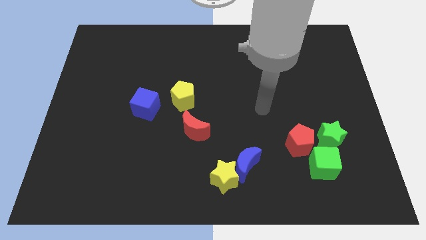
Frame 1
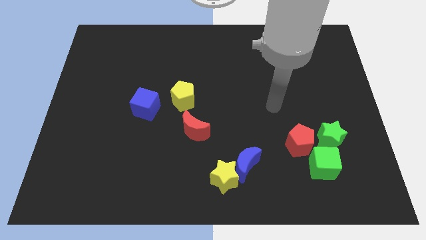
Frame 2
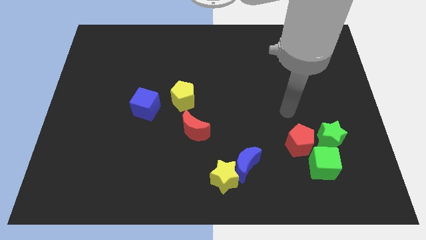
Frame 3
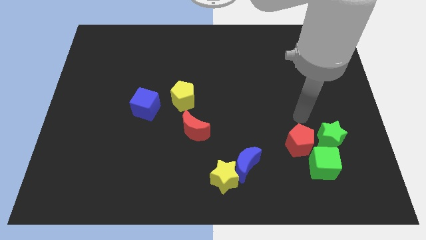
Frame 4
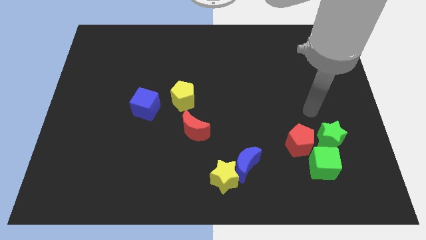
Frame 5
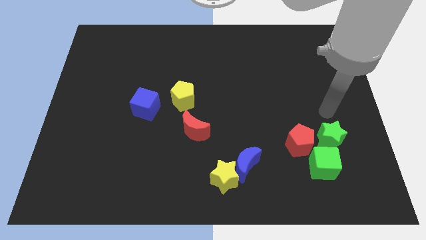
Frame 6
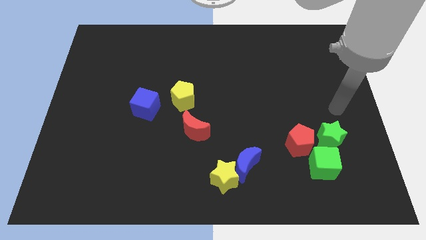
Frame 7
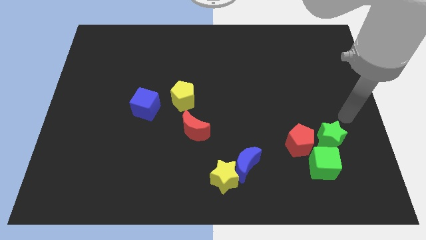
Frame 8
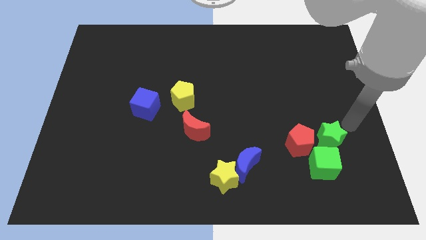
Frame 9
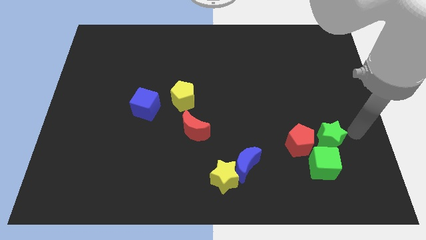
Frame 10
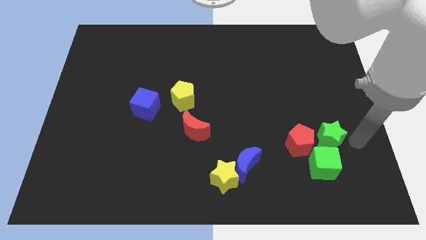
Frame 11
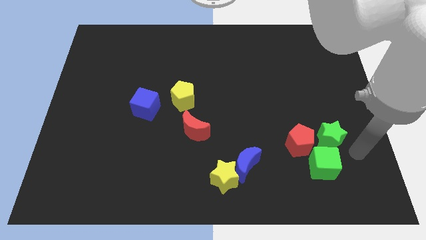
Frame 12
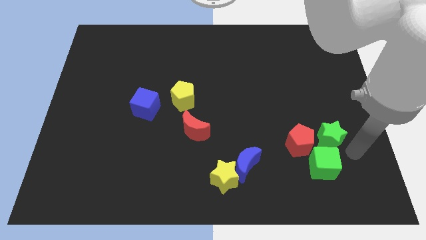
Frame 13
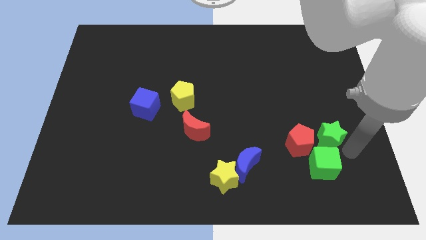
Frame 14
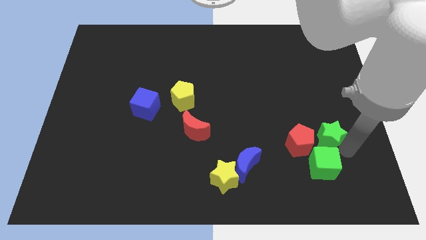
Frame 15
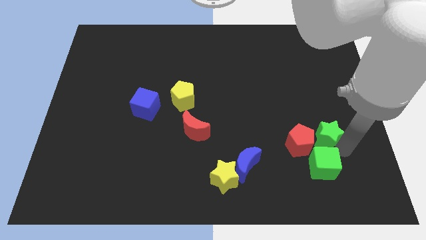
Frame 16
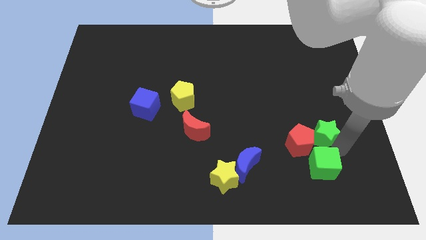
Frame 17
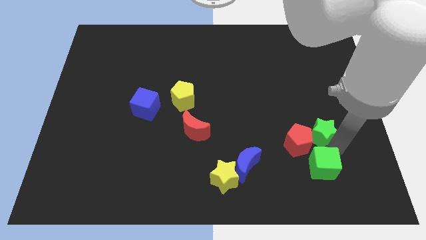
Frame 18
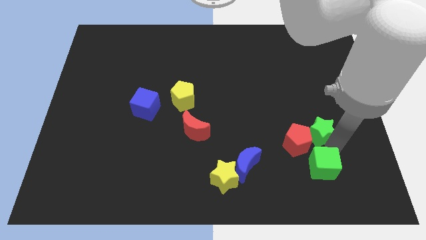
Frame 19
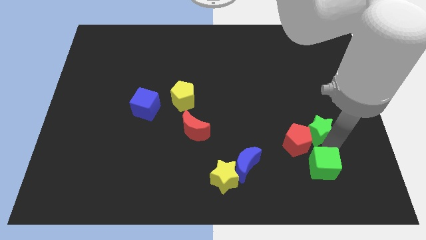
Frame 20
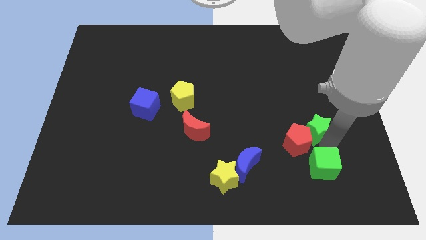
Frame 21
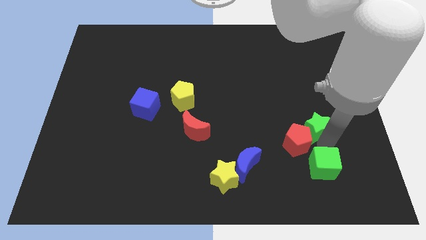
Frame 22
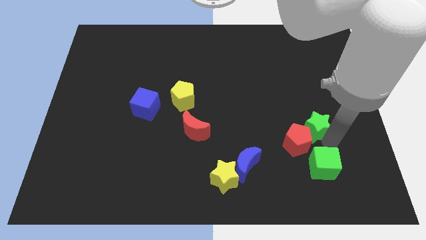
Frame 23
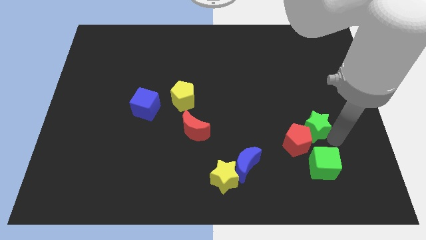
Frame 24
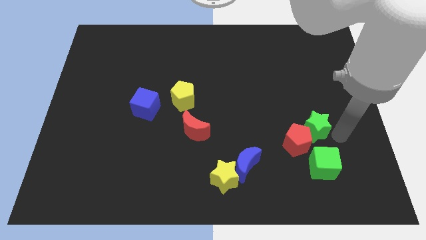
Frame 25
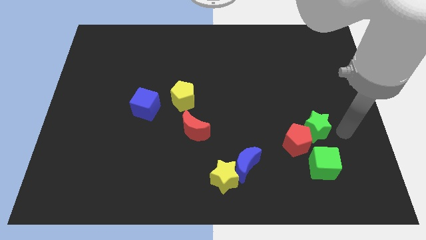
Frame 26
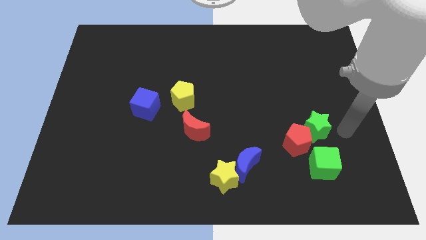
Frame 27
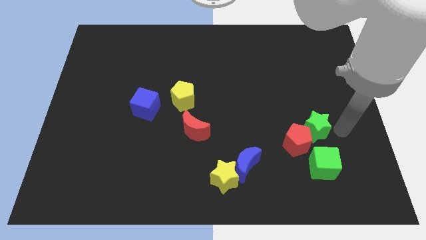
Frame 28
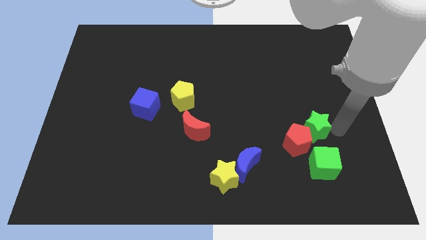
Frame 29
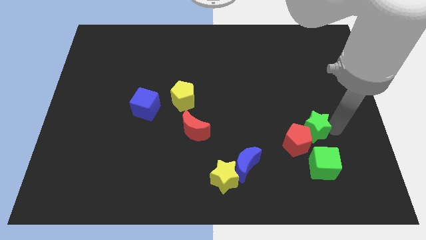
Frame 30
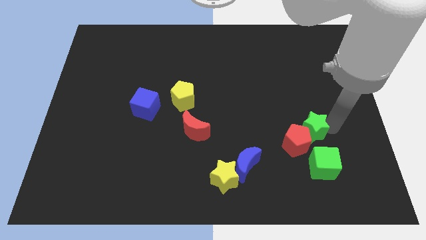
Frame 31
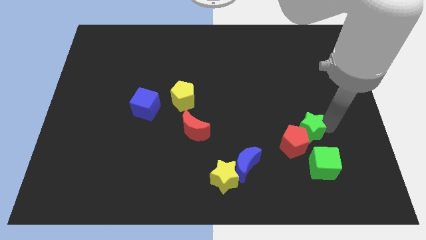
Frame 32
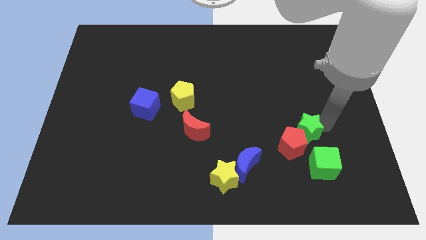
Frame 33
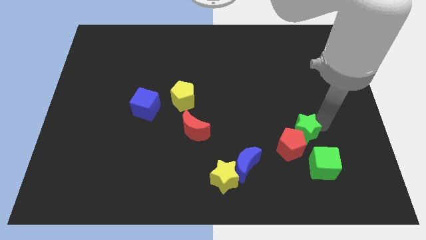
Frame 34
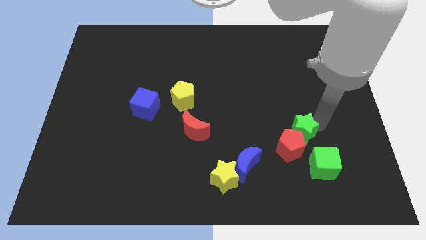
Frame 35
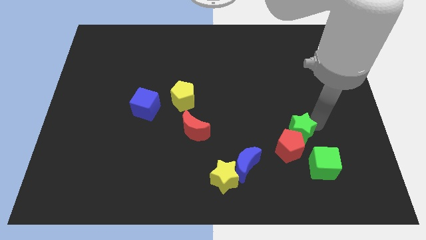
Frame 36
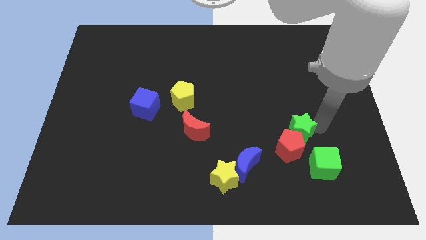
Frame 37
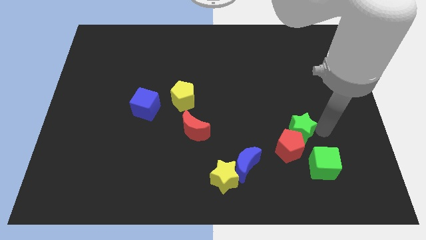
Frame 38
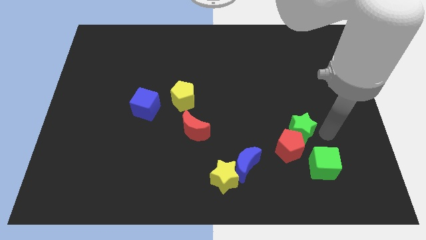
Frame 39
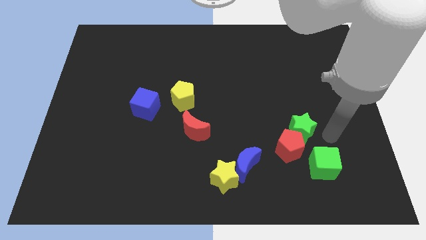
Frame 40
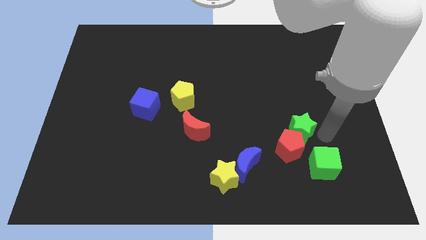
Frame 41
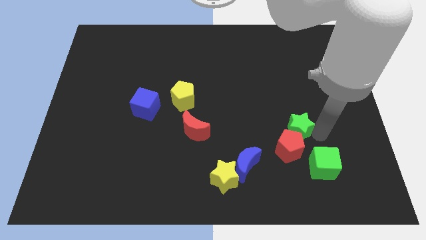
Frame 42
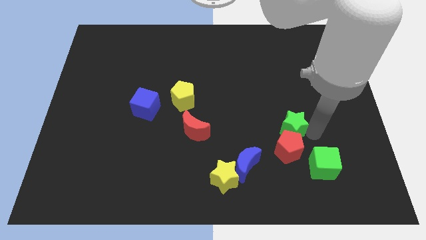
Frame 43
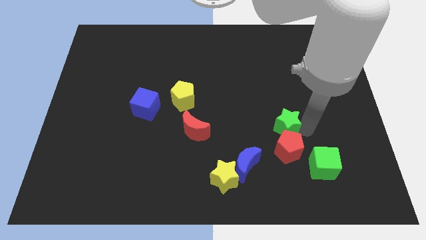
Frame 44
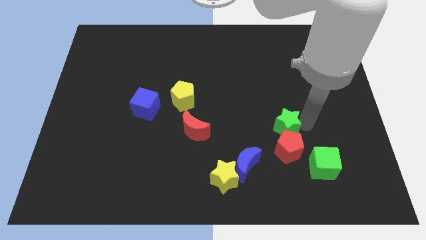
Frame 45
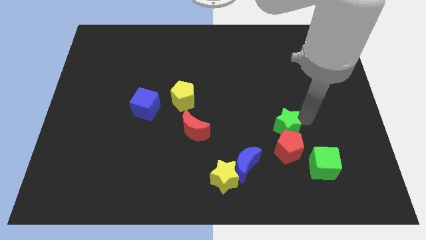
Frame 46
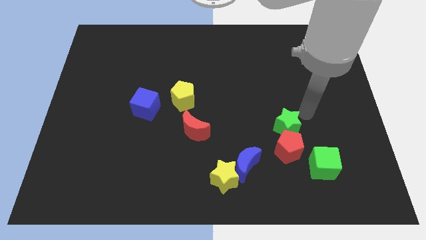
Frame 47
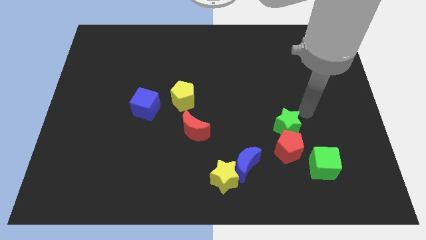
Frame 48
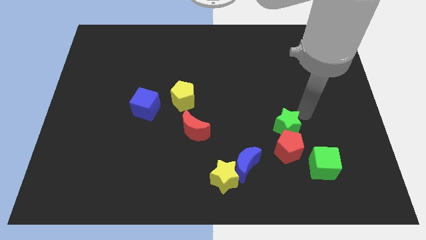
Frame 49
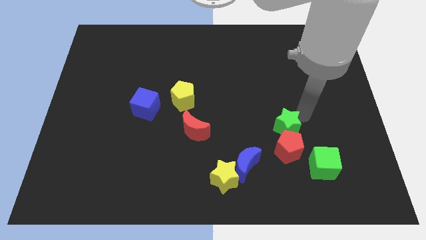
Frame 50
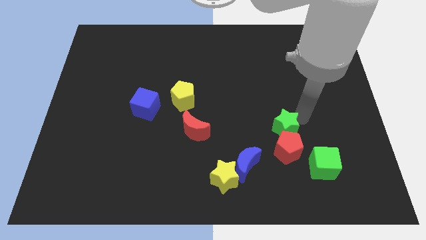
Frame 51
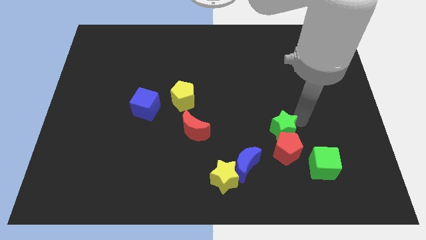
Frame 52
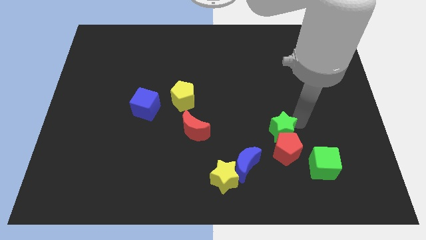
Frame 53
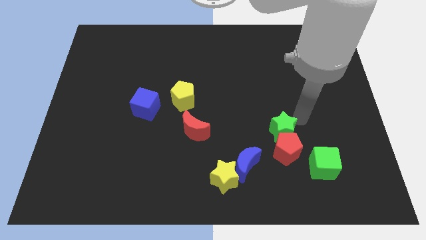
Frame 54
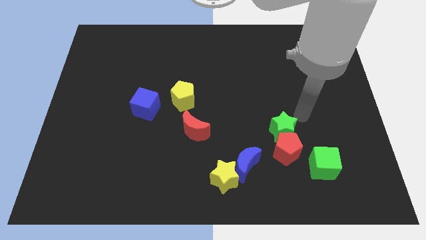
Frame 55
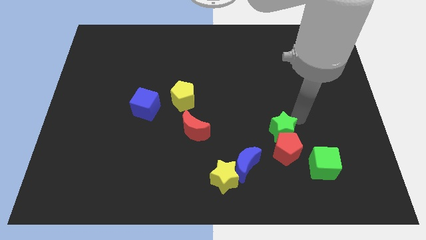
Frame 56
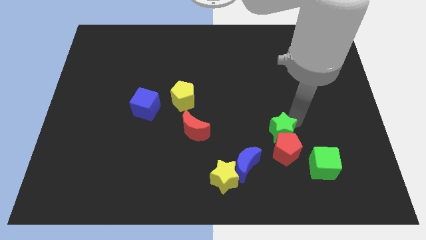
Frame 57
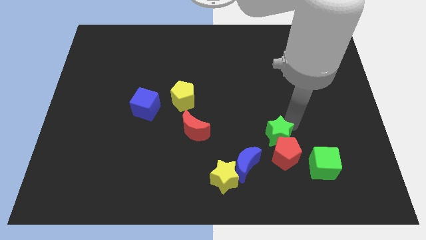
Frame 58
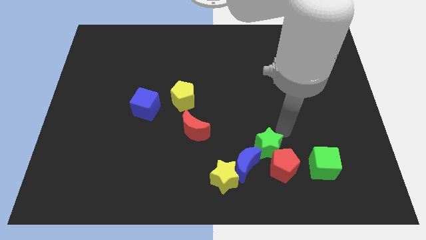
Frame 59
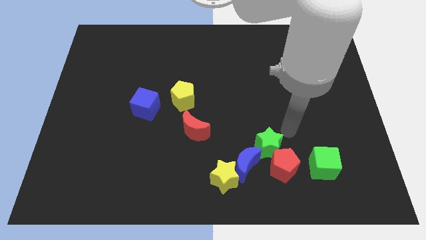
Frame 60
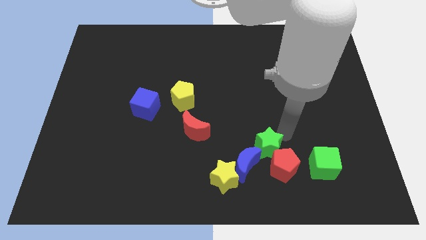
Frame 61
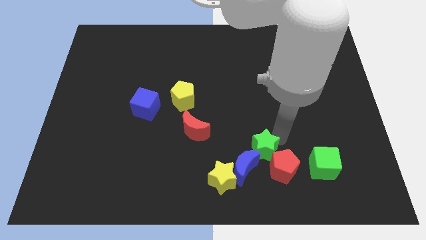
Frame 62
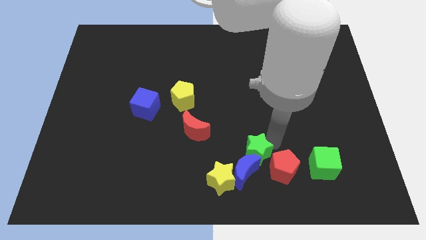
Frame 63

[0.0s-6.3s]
put the green star to the blue moon
